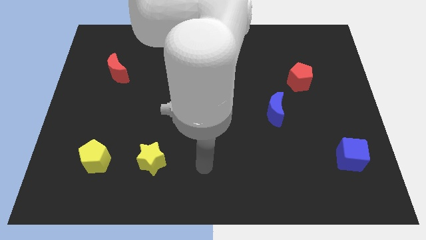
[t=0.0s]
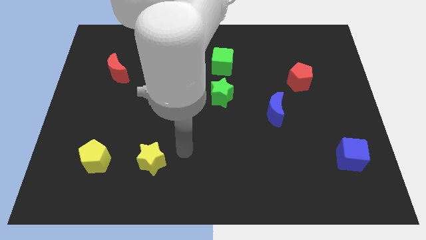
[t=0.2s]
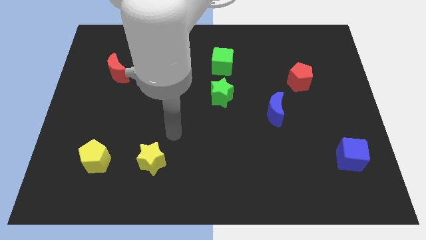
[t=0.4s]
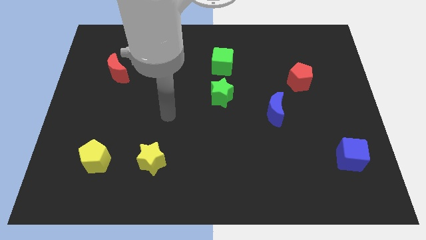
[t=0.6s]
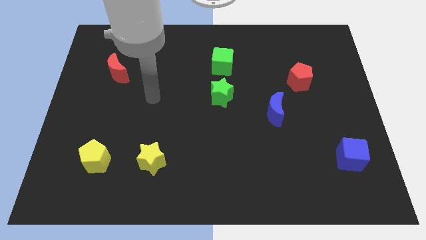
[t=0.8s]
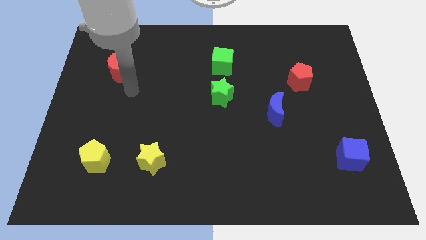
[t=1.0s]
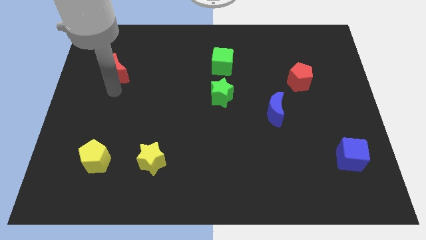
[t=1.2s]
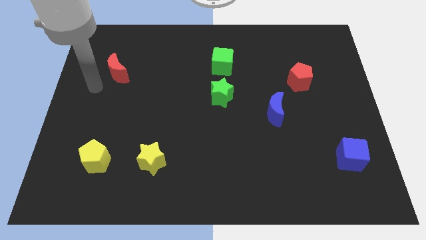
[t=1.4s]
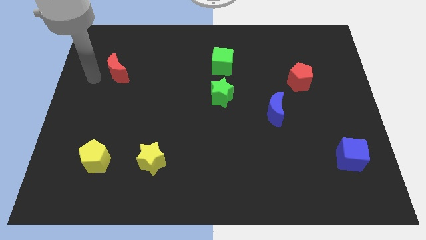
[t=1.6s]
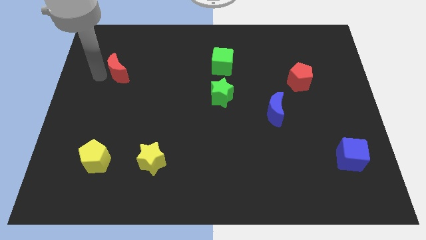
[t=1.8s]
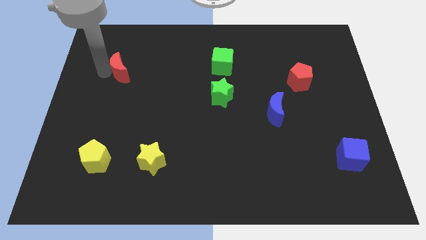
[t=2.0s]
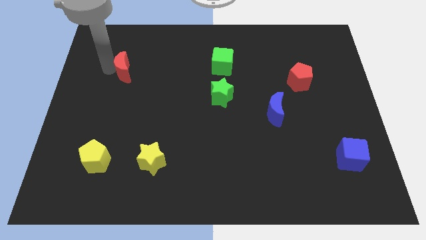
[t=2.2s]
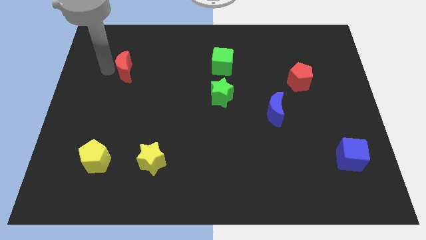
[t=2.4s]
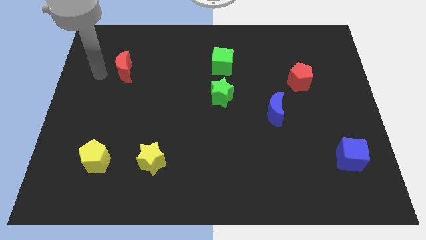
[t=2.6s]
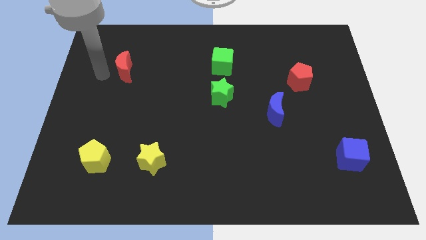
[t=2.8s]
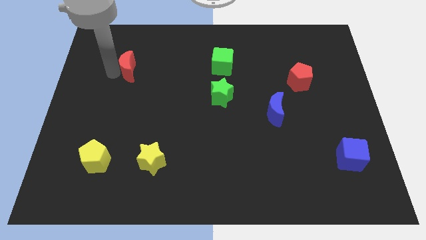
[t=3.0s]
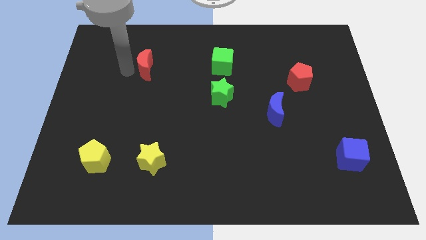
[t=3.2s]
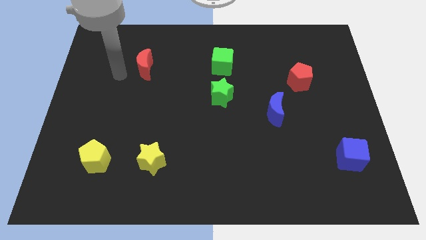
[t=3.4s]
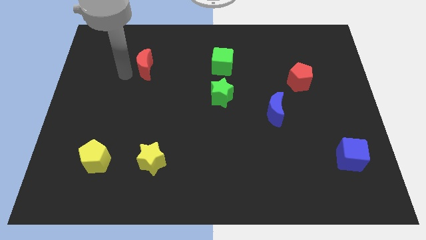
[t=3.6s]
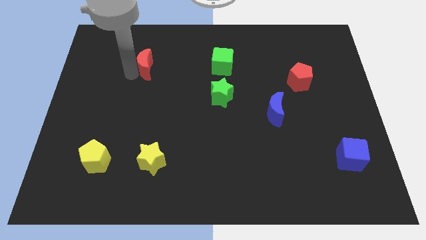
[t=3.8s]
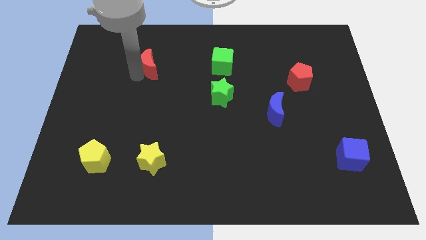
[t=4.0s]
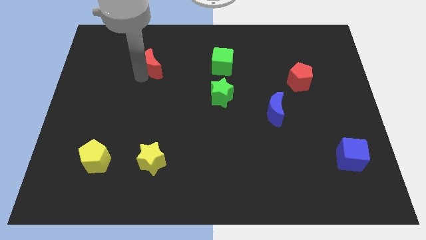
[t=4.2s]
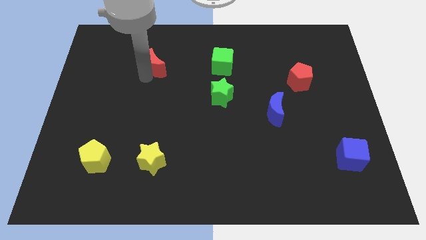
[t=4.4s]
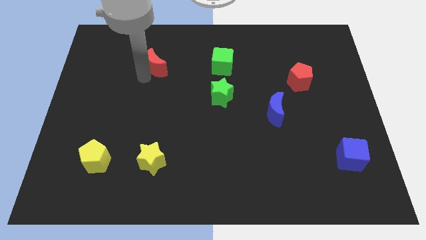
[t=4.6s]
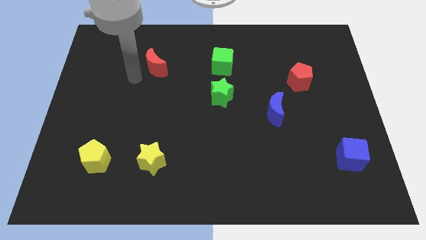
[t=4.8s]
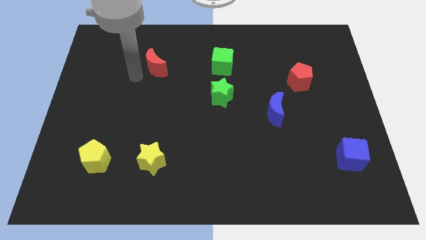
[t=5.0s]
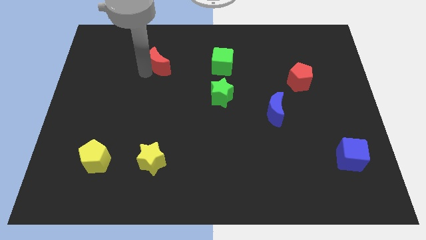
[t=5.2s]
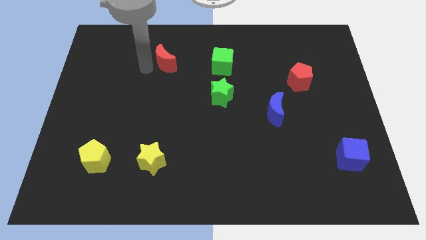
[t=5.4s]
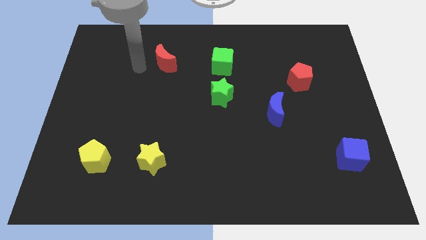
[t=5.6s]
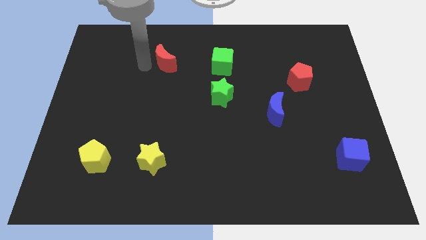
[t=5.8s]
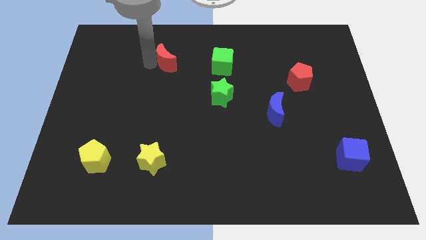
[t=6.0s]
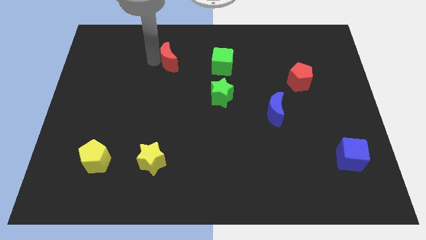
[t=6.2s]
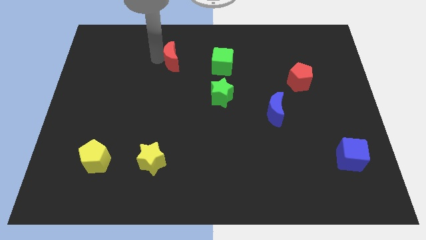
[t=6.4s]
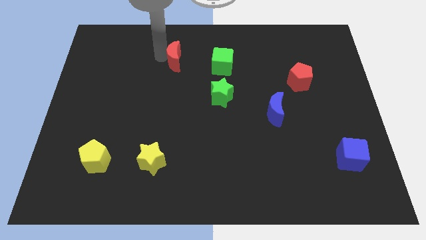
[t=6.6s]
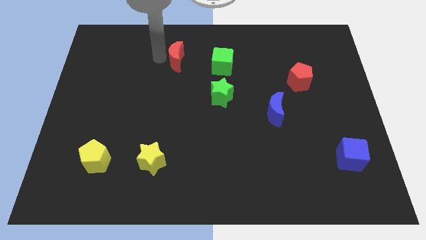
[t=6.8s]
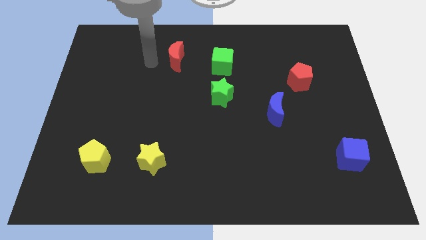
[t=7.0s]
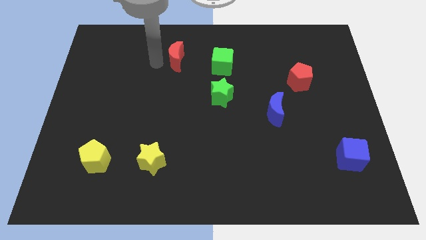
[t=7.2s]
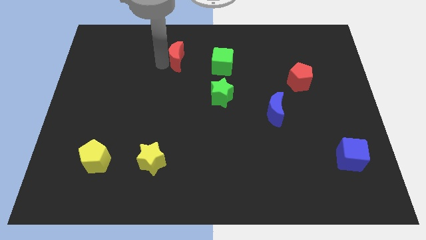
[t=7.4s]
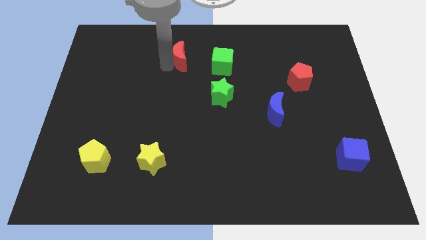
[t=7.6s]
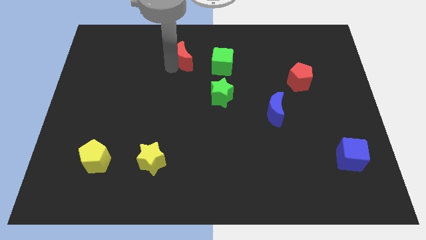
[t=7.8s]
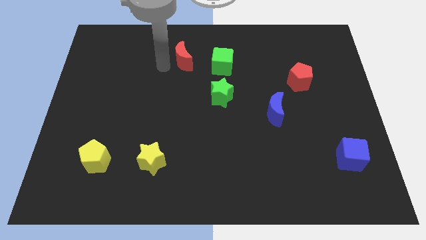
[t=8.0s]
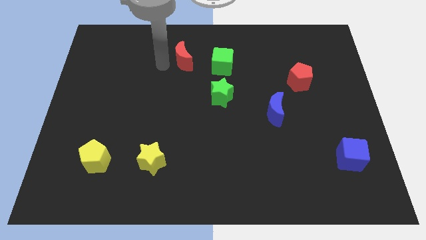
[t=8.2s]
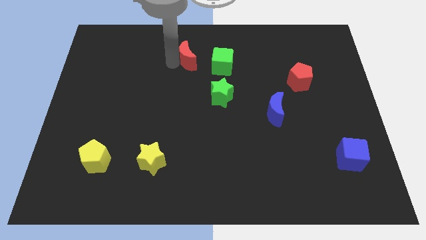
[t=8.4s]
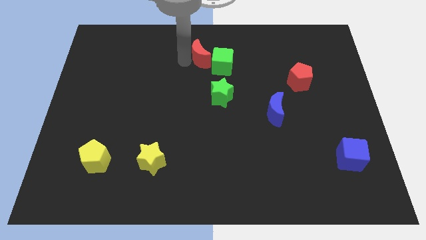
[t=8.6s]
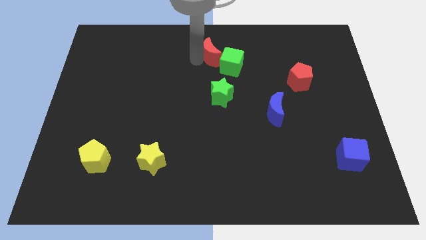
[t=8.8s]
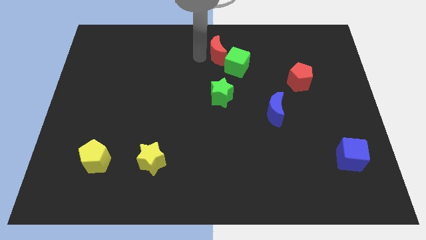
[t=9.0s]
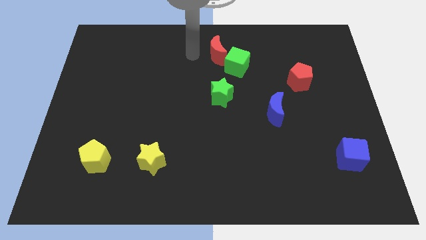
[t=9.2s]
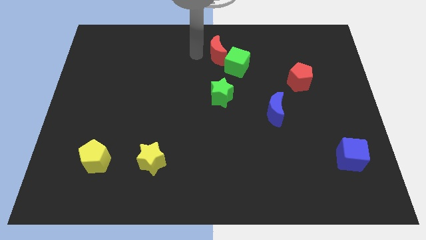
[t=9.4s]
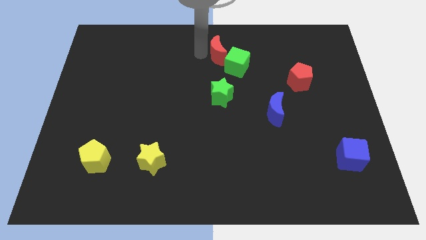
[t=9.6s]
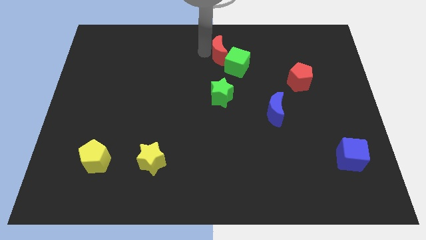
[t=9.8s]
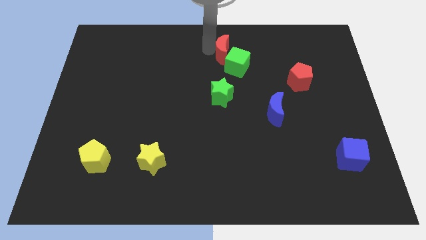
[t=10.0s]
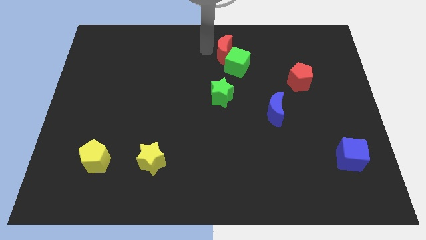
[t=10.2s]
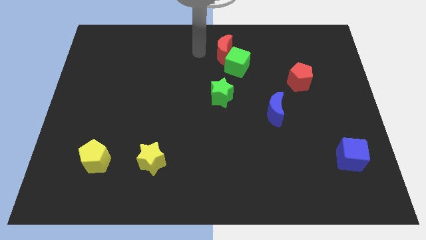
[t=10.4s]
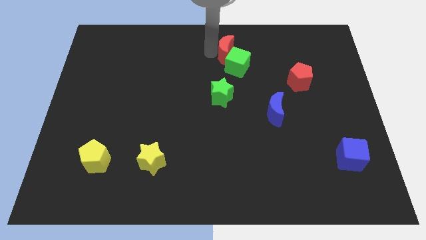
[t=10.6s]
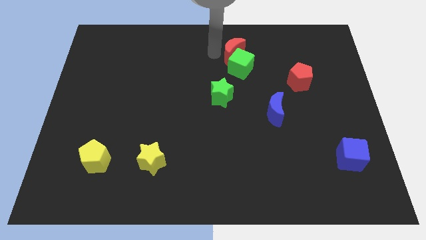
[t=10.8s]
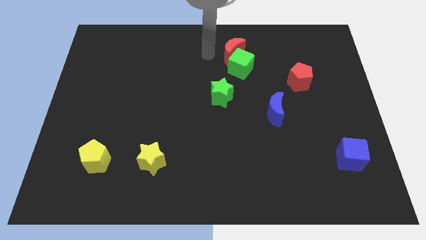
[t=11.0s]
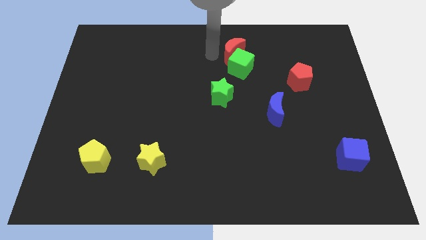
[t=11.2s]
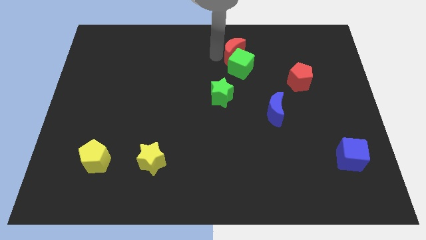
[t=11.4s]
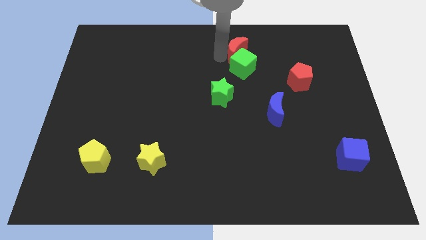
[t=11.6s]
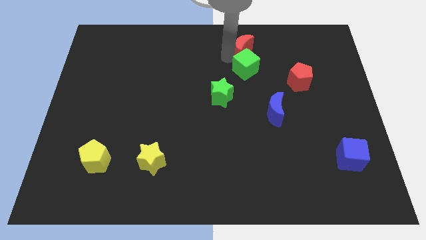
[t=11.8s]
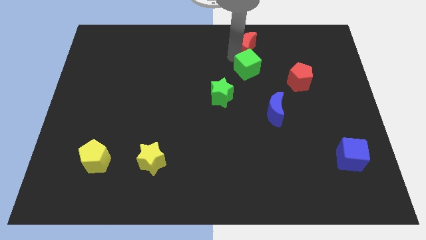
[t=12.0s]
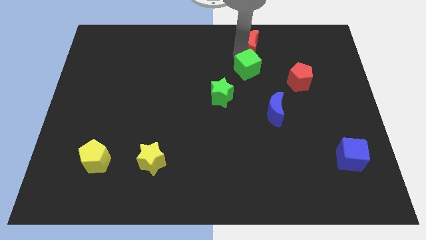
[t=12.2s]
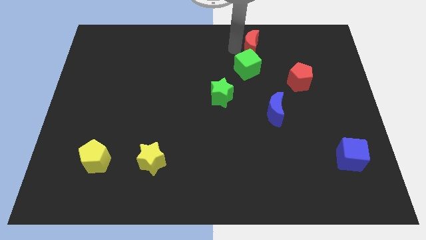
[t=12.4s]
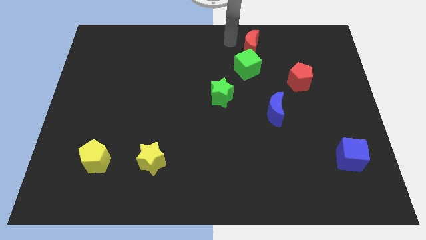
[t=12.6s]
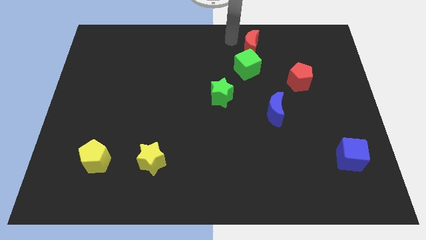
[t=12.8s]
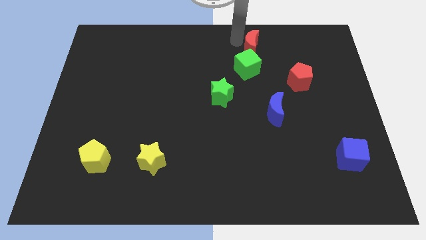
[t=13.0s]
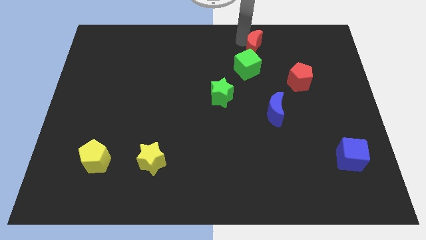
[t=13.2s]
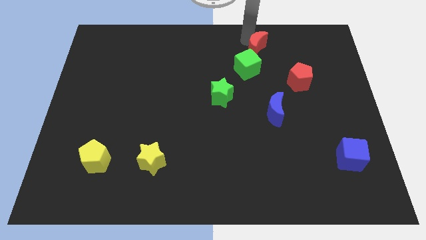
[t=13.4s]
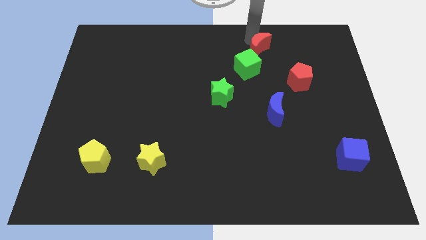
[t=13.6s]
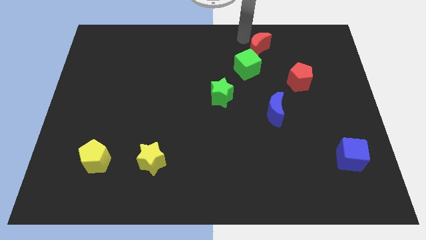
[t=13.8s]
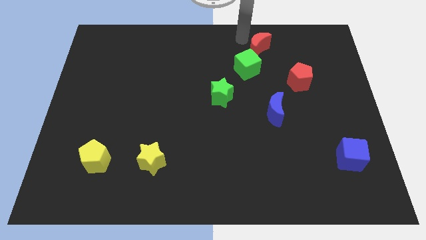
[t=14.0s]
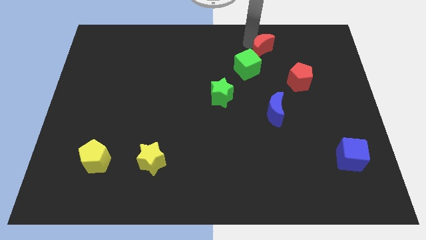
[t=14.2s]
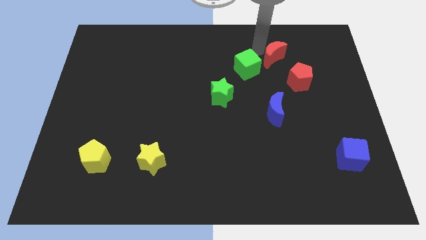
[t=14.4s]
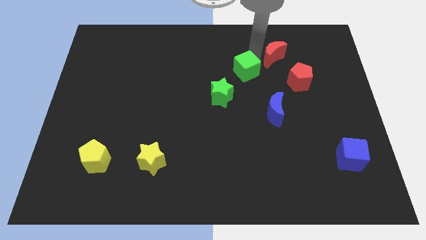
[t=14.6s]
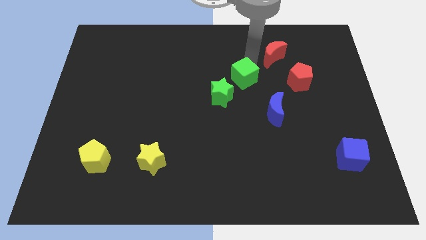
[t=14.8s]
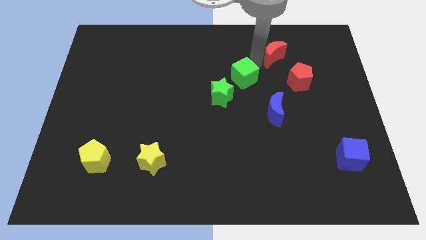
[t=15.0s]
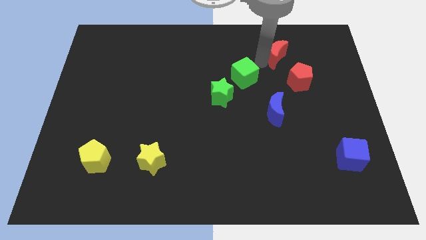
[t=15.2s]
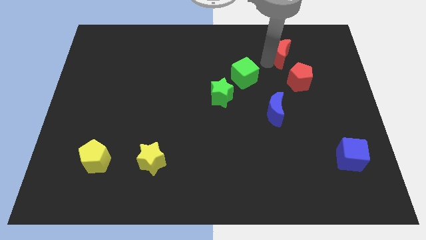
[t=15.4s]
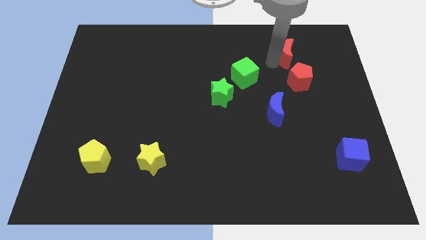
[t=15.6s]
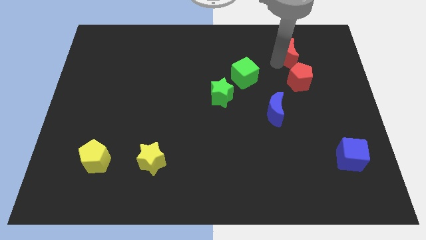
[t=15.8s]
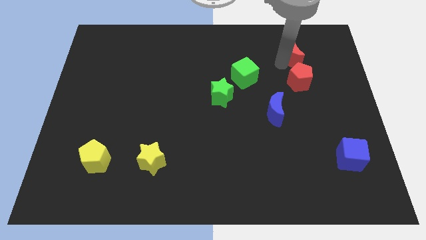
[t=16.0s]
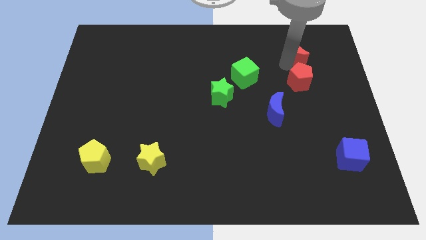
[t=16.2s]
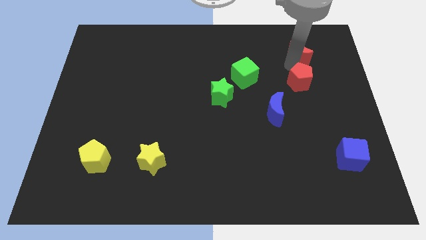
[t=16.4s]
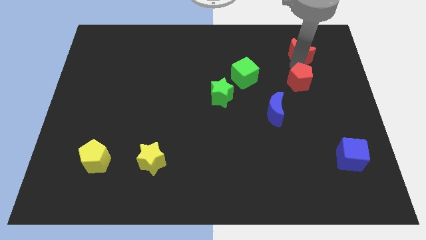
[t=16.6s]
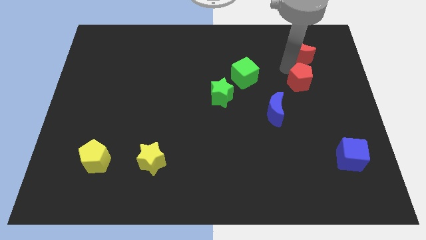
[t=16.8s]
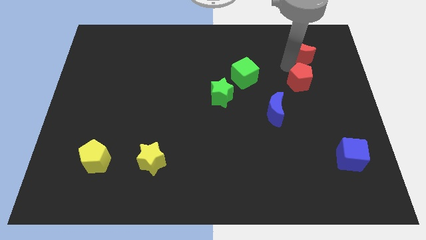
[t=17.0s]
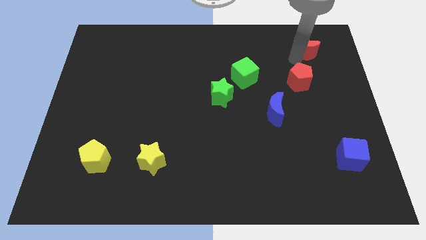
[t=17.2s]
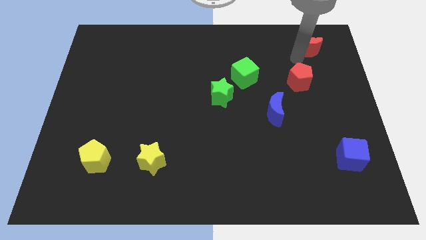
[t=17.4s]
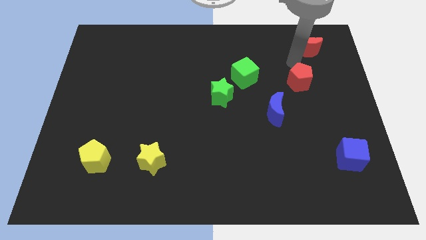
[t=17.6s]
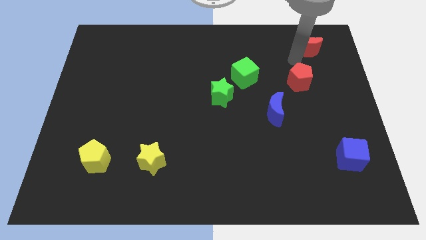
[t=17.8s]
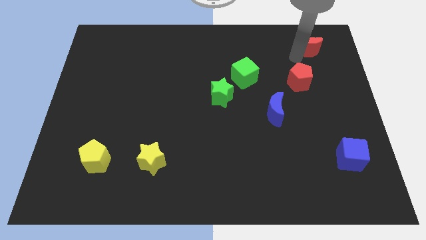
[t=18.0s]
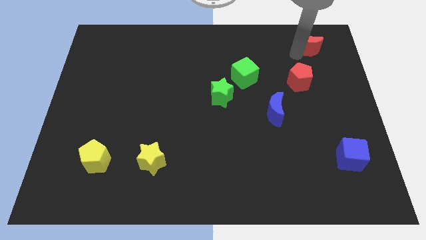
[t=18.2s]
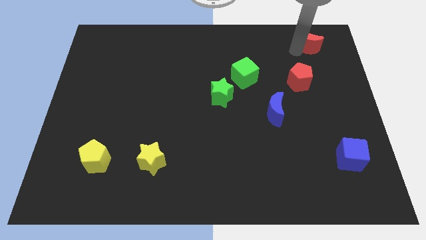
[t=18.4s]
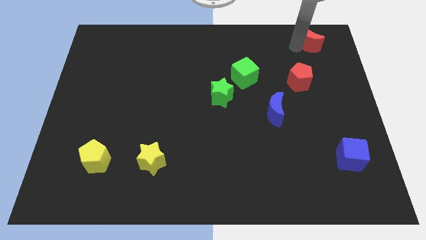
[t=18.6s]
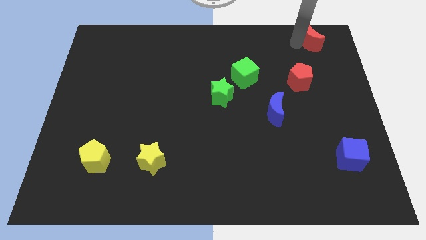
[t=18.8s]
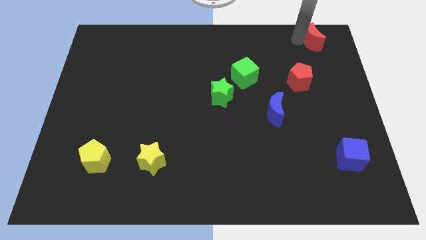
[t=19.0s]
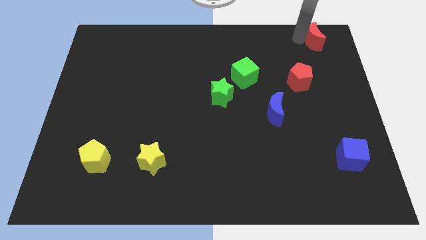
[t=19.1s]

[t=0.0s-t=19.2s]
push the red moon to the top right corner
